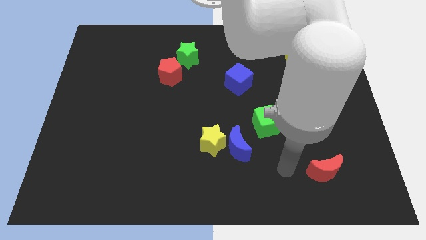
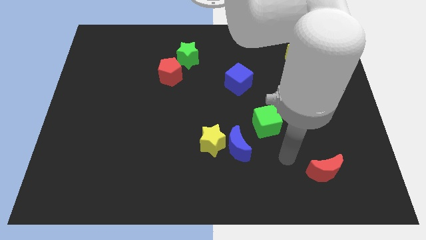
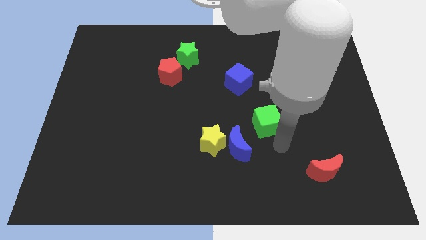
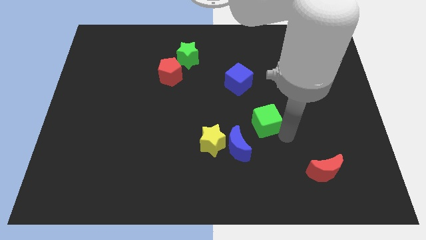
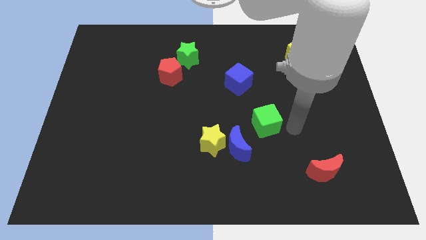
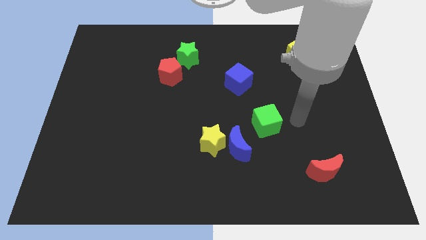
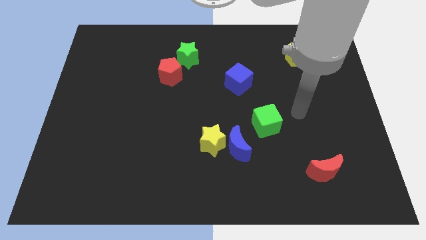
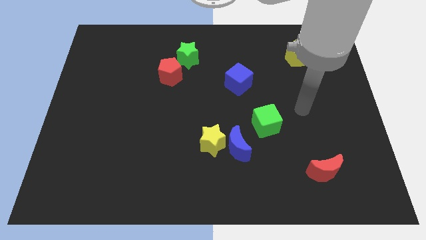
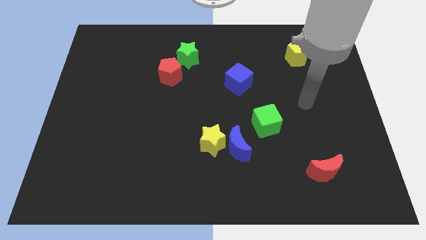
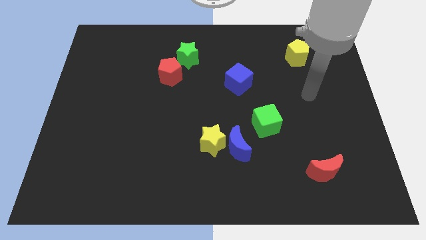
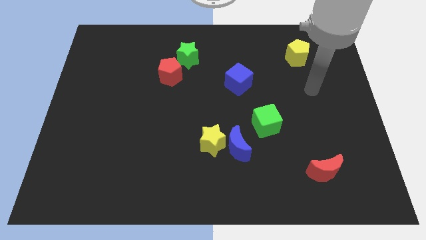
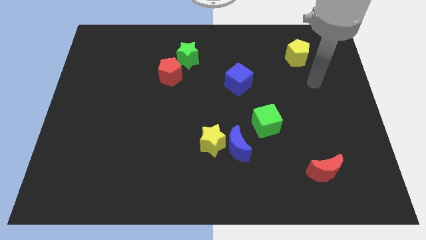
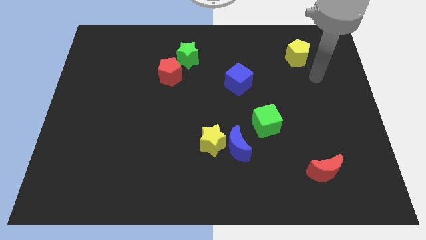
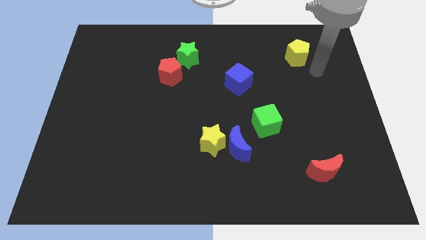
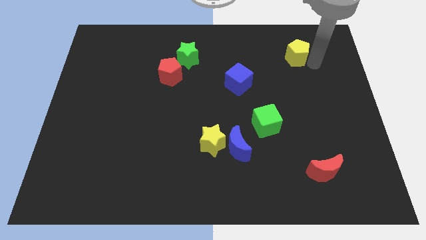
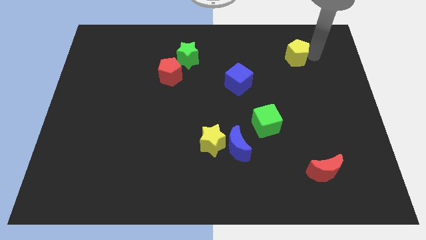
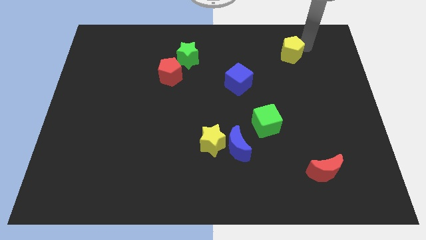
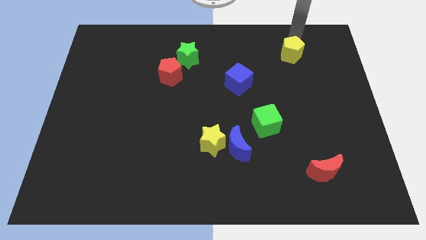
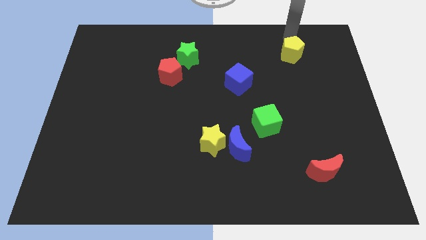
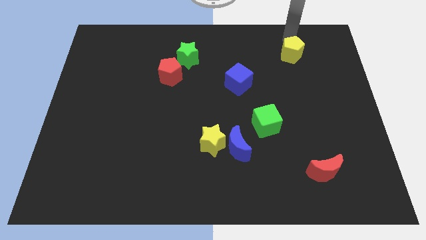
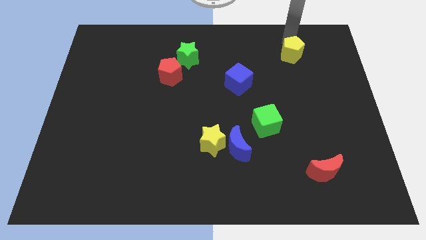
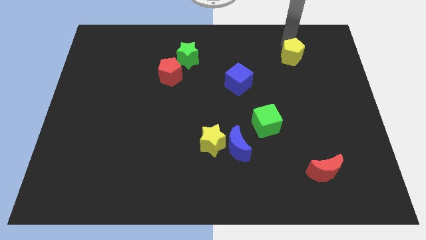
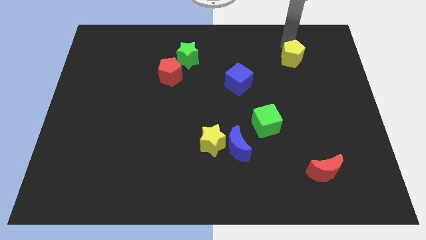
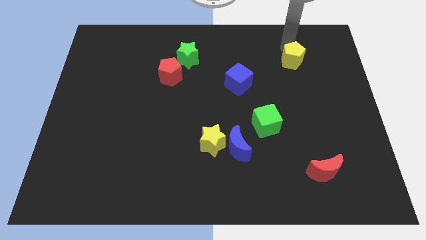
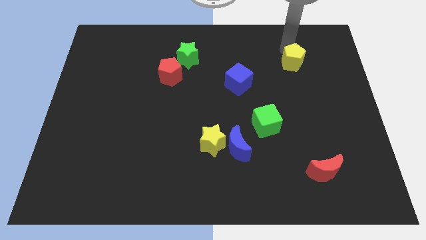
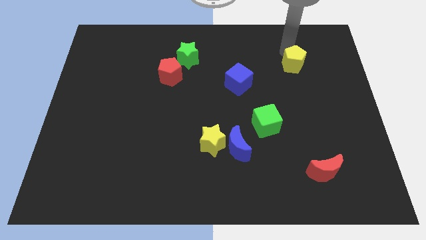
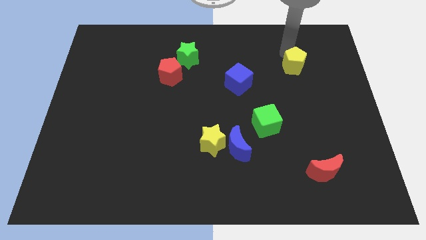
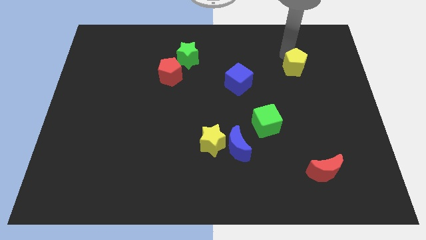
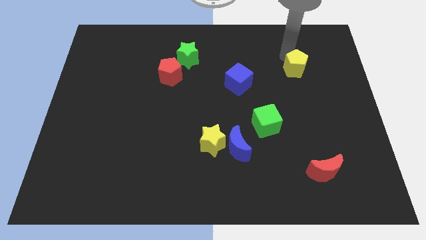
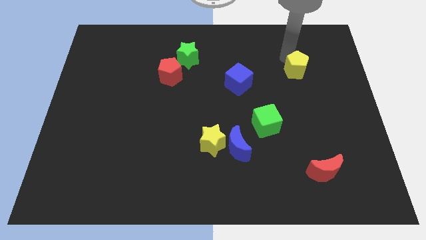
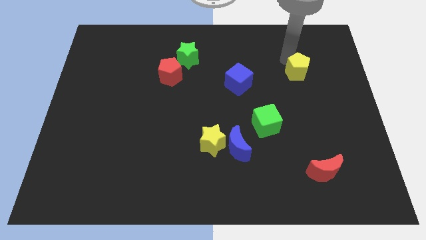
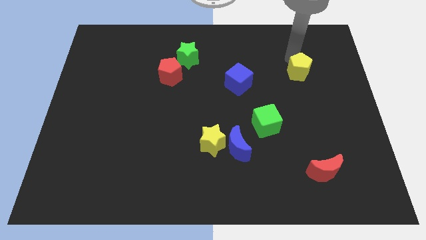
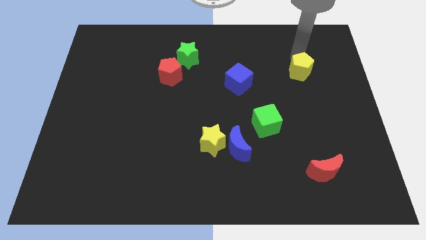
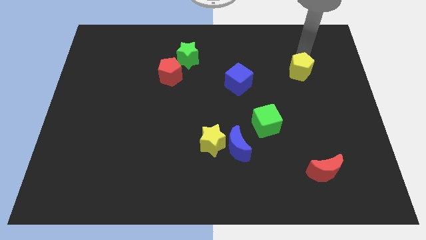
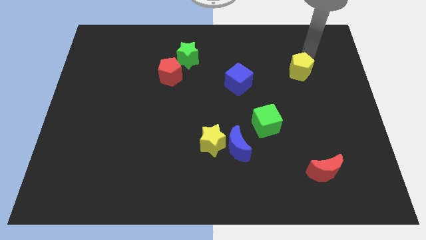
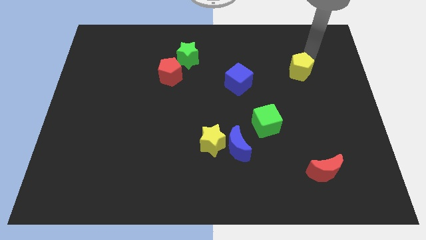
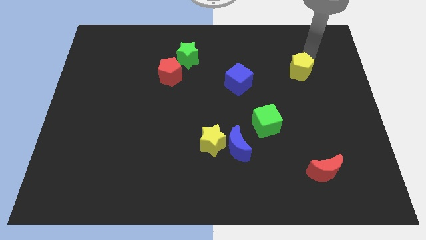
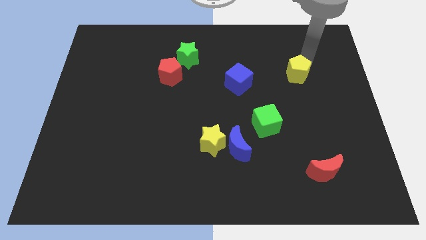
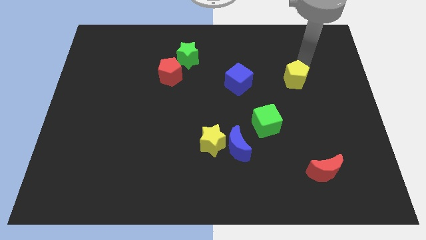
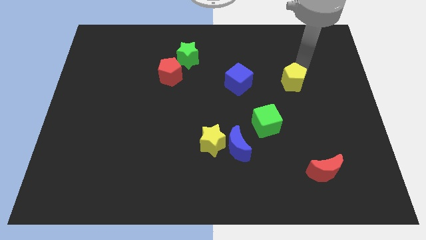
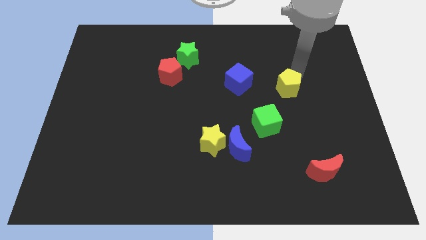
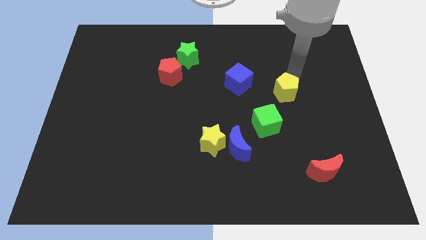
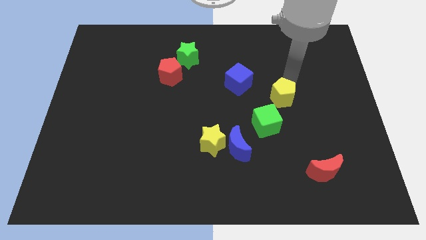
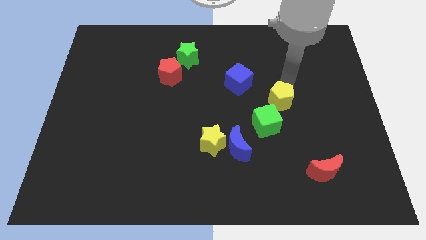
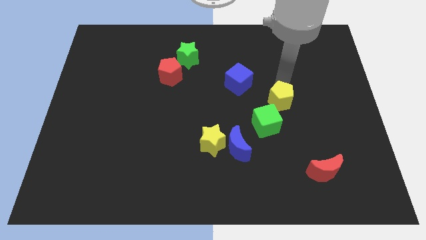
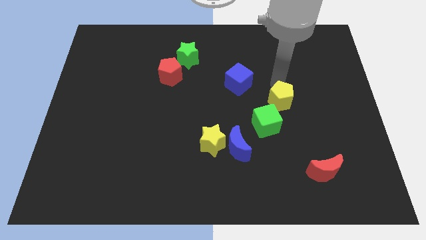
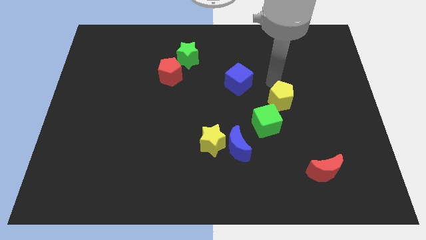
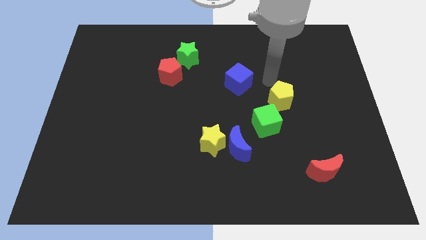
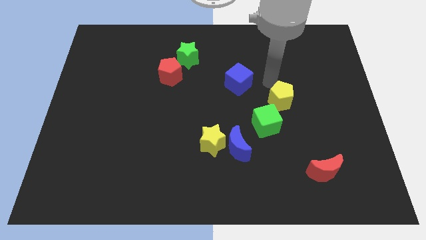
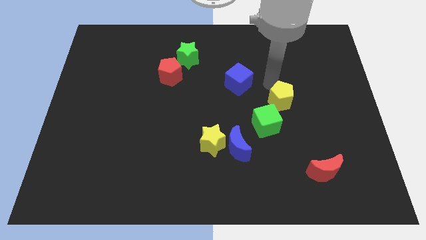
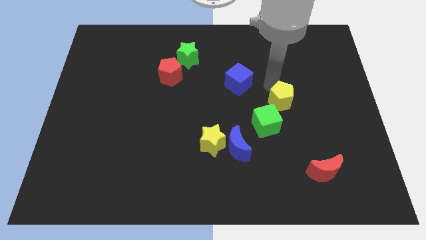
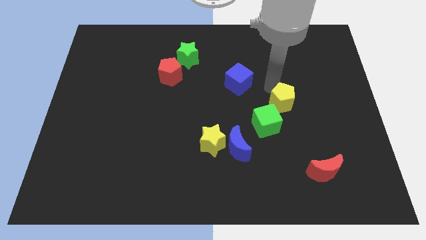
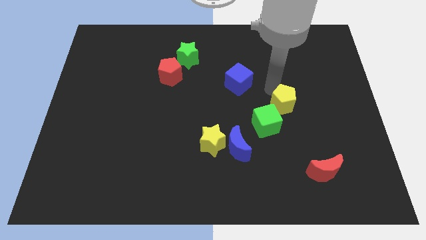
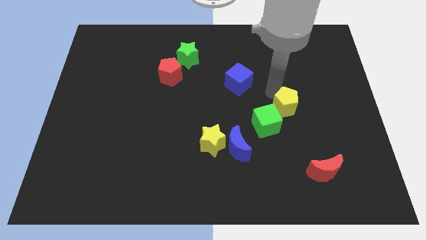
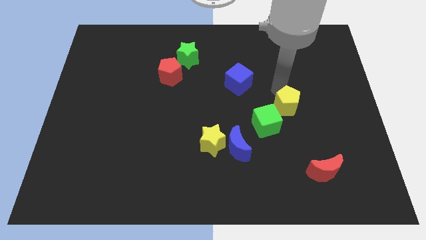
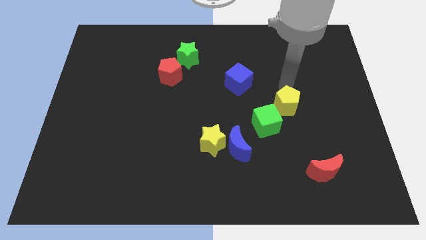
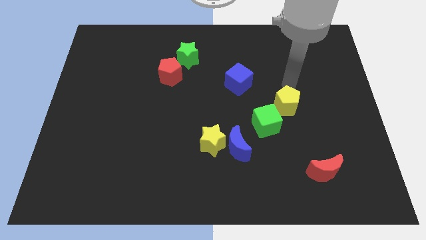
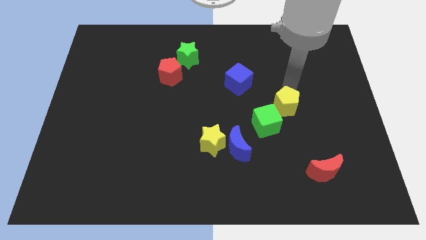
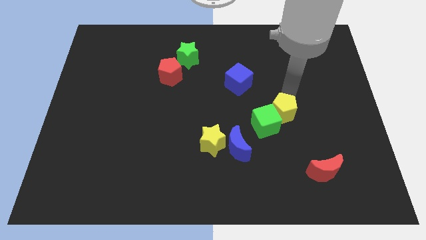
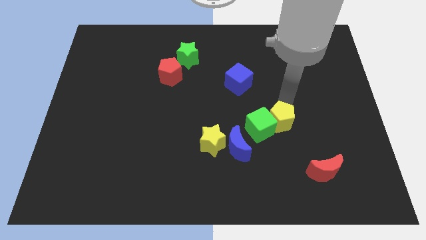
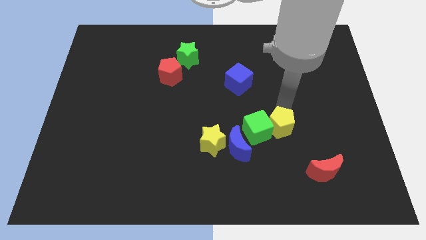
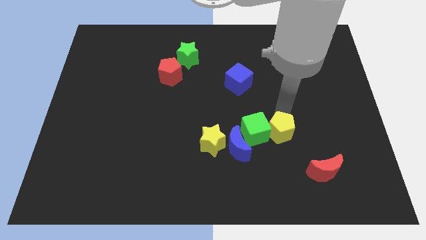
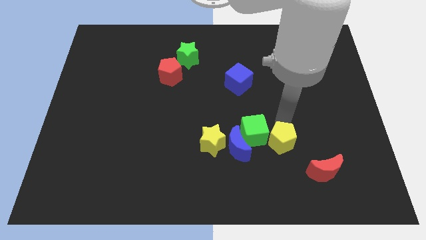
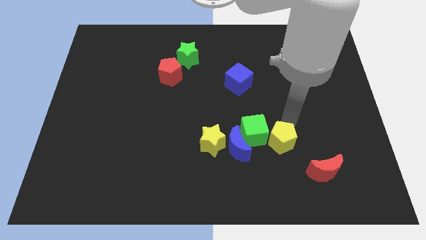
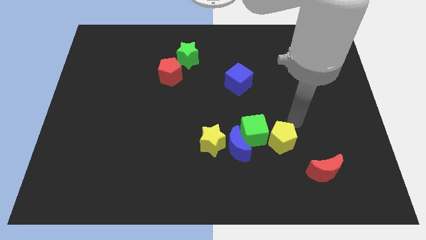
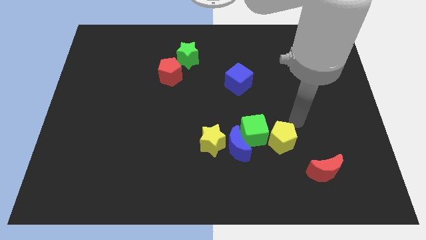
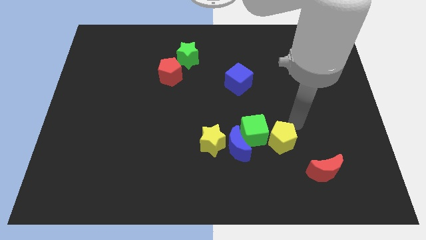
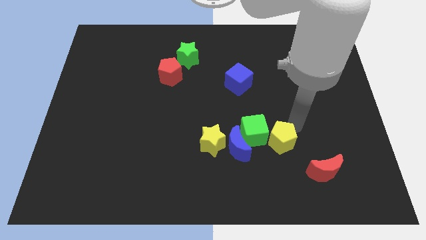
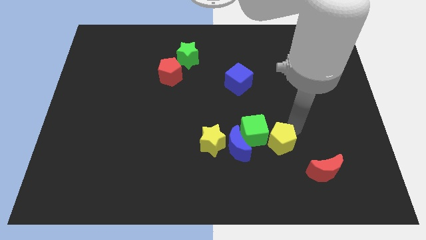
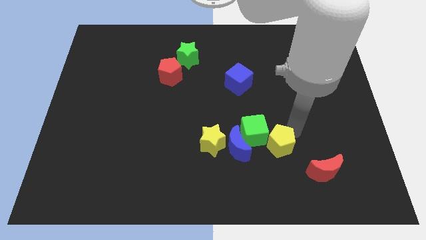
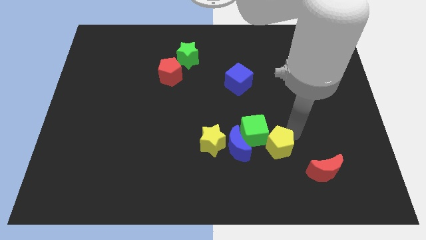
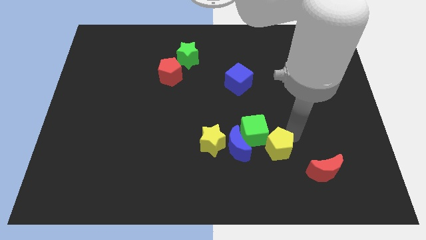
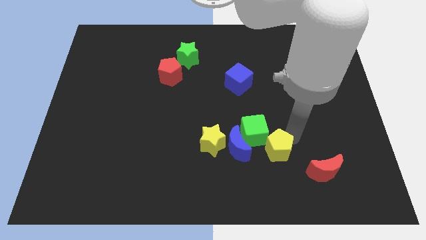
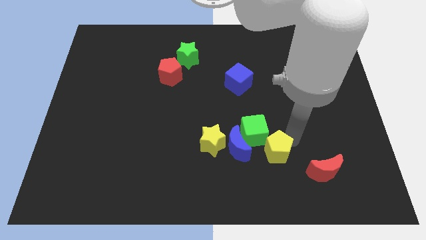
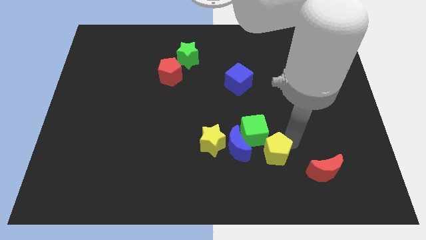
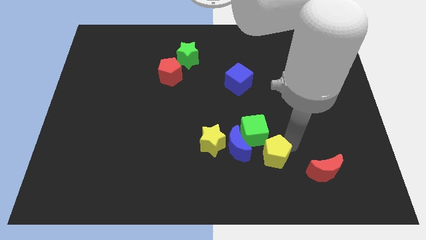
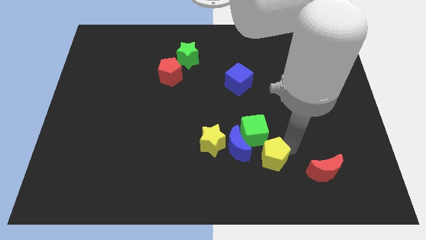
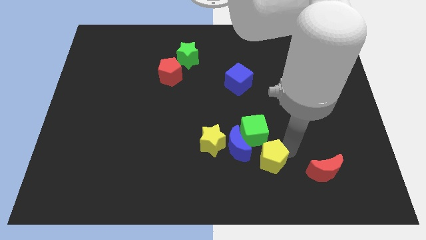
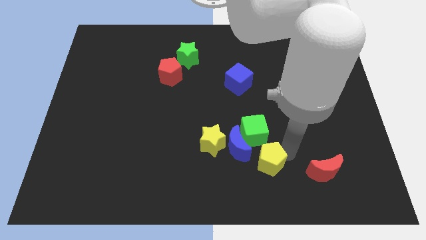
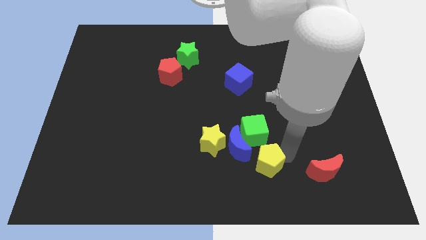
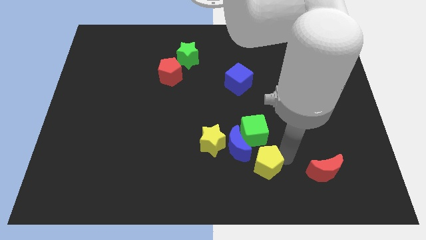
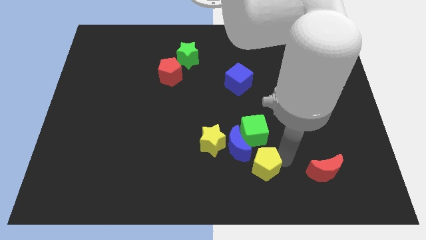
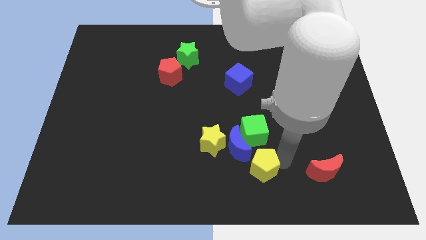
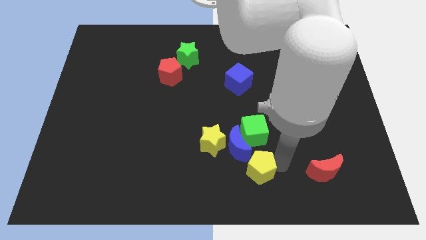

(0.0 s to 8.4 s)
put the yellow pentagon to the bottom

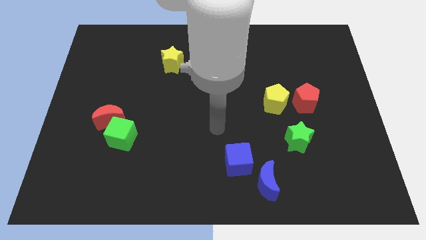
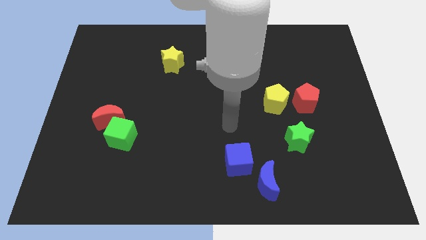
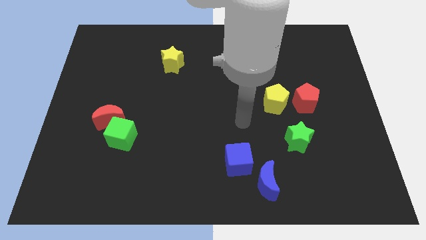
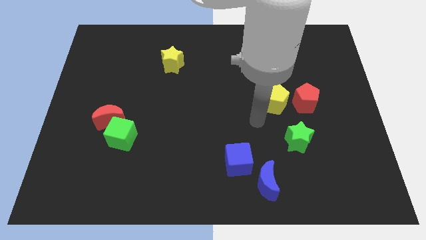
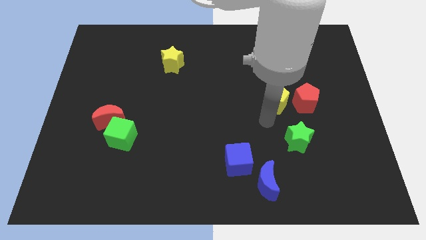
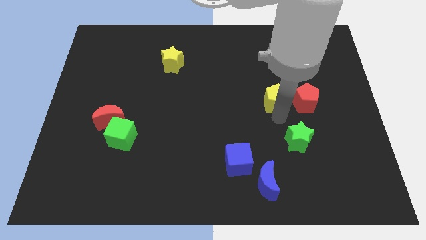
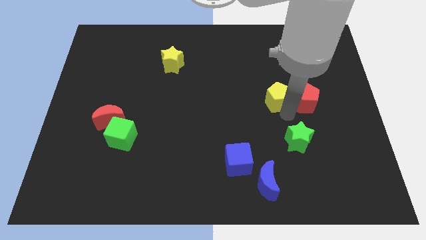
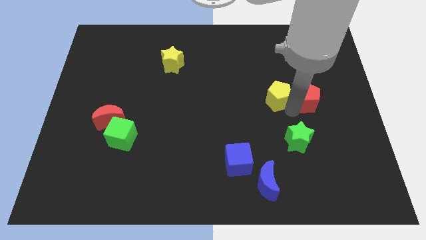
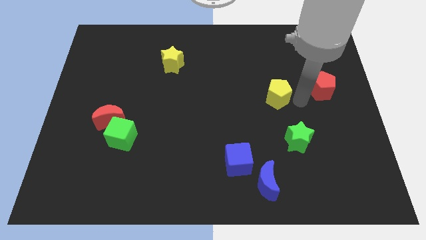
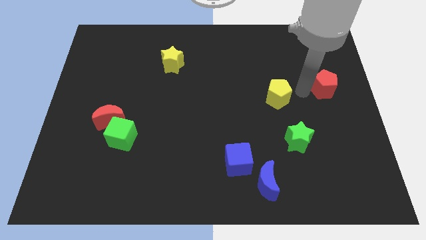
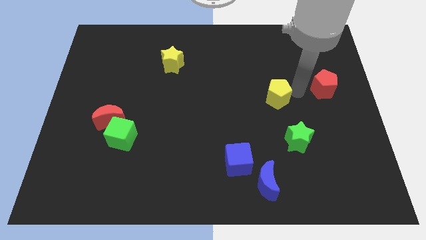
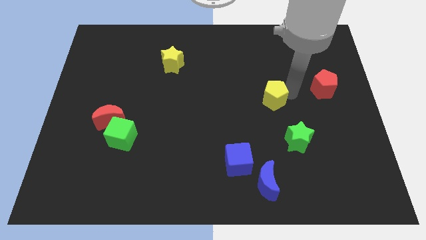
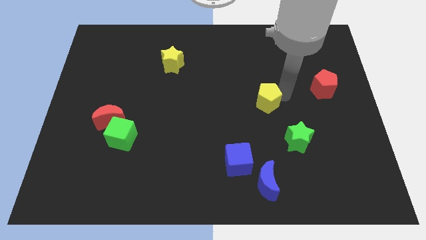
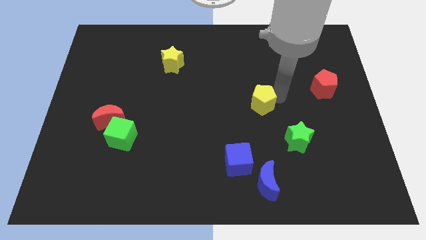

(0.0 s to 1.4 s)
put the yellow pentagon to the middle
